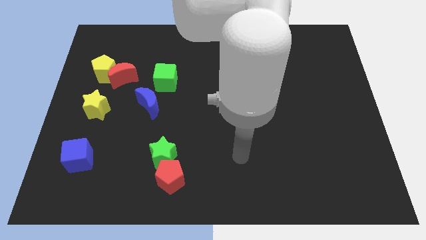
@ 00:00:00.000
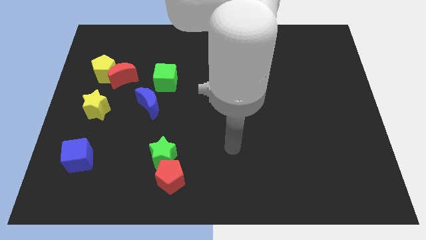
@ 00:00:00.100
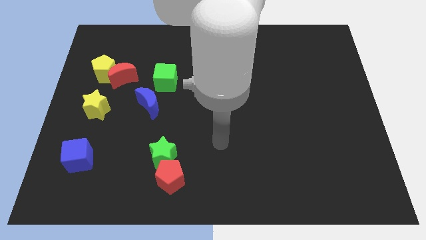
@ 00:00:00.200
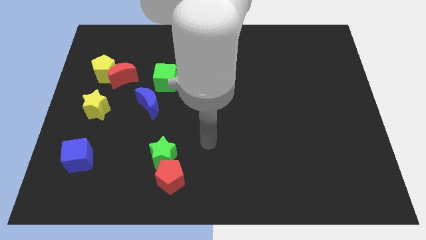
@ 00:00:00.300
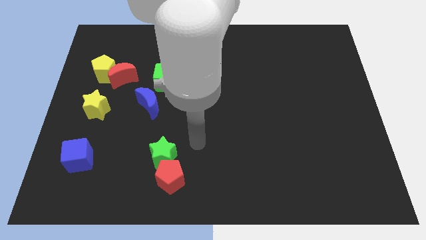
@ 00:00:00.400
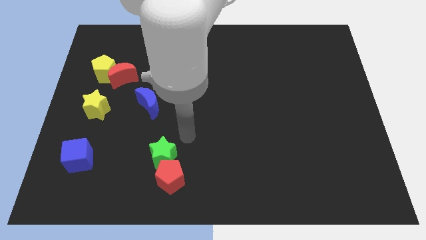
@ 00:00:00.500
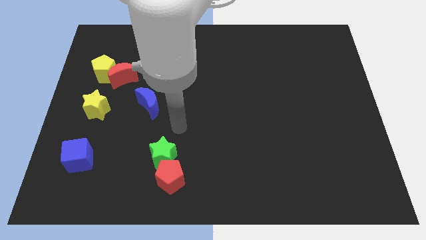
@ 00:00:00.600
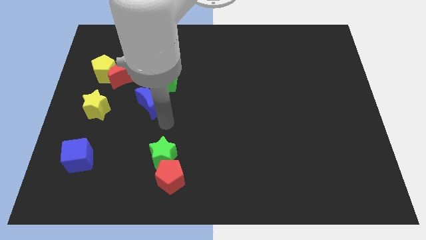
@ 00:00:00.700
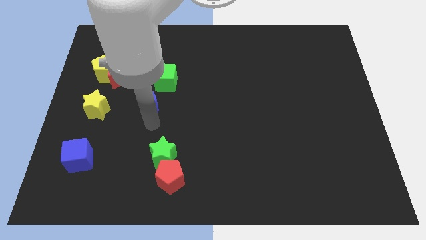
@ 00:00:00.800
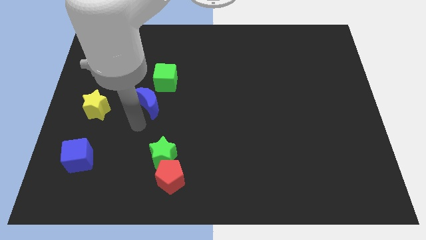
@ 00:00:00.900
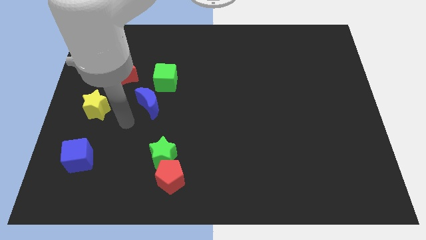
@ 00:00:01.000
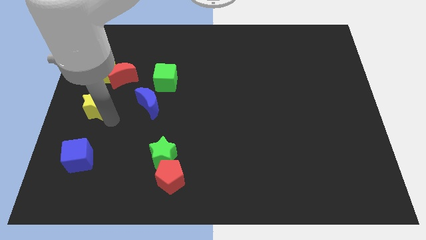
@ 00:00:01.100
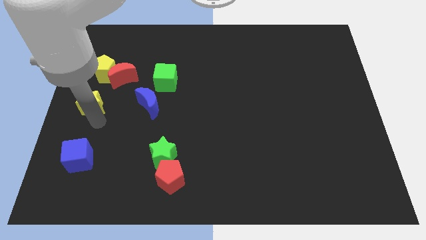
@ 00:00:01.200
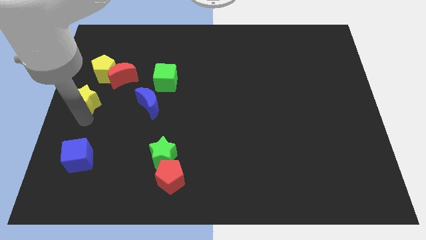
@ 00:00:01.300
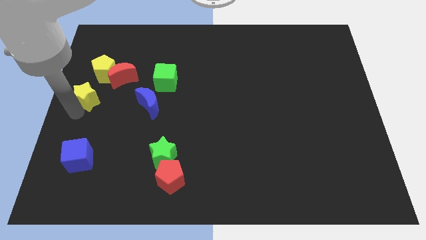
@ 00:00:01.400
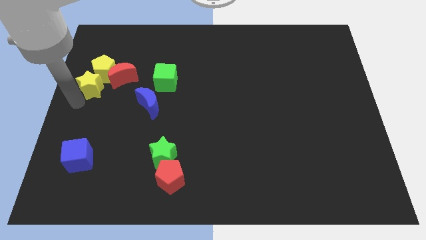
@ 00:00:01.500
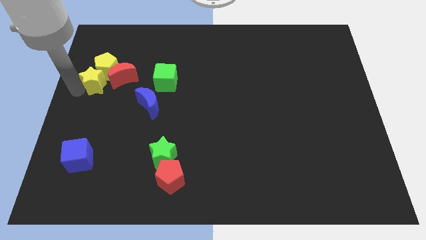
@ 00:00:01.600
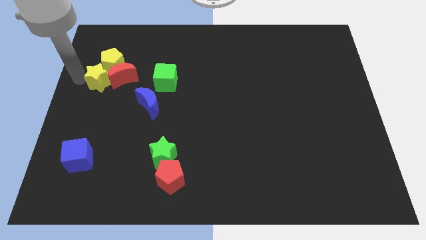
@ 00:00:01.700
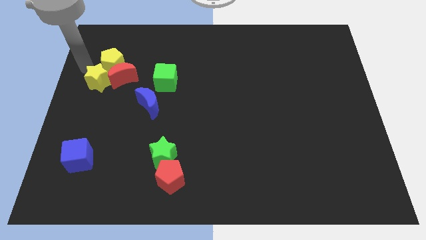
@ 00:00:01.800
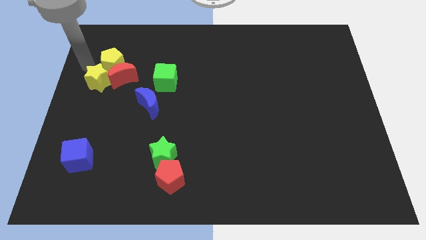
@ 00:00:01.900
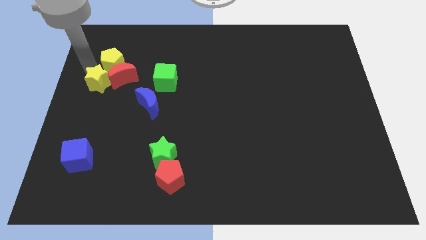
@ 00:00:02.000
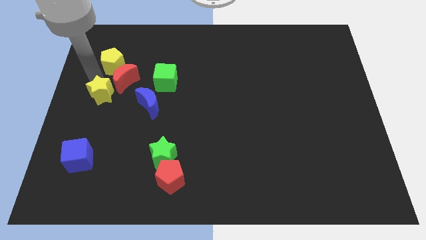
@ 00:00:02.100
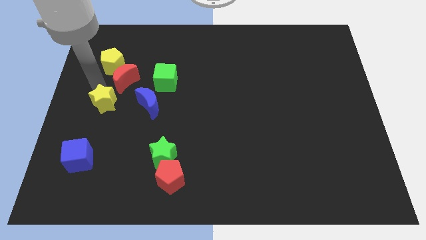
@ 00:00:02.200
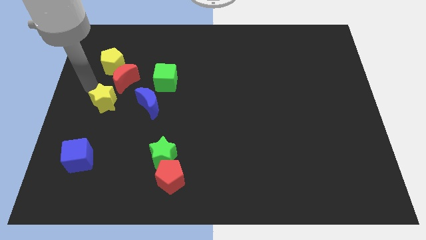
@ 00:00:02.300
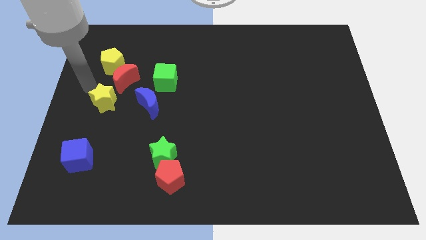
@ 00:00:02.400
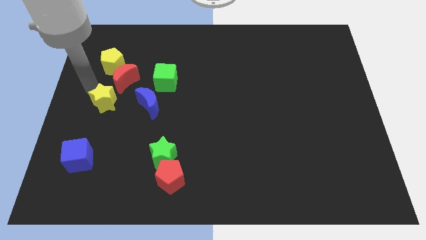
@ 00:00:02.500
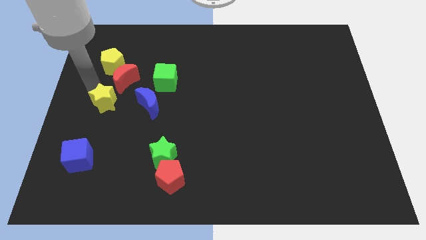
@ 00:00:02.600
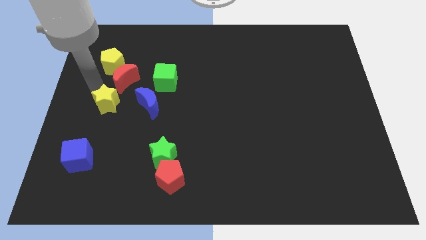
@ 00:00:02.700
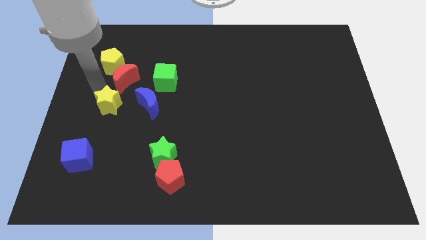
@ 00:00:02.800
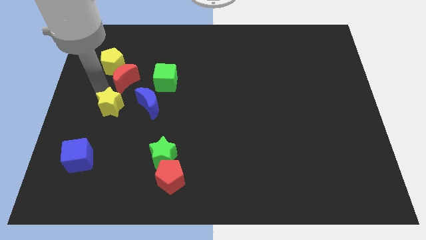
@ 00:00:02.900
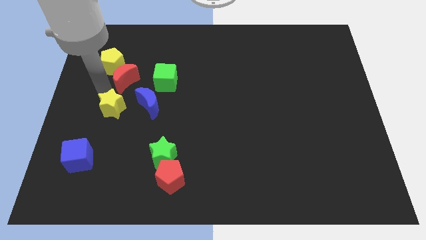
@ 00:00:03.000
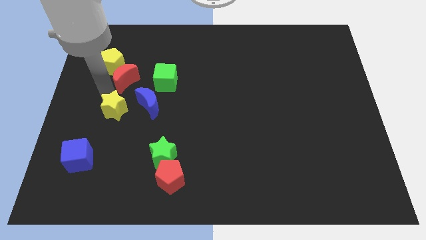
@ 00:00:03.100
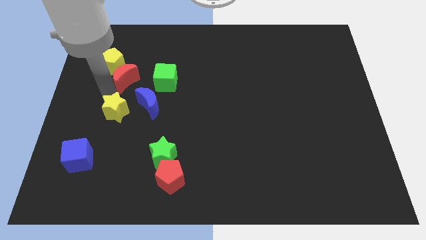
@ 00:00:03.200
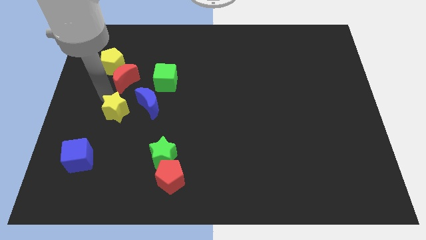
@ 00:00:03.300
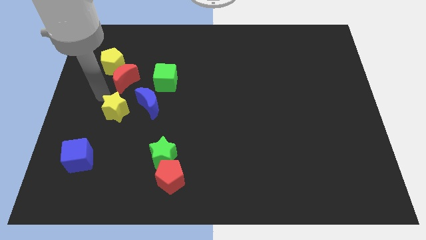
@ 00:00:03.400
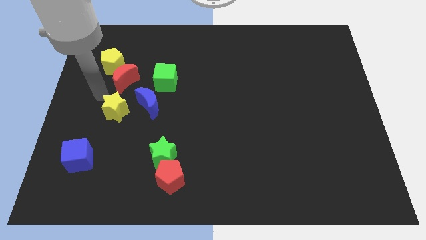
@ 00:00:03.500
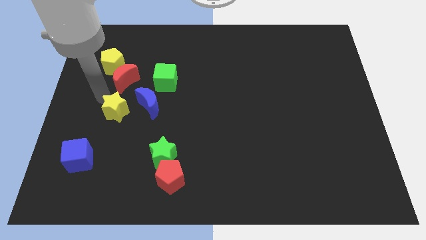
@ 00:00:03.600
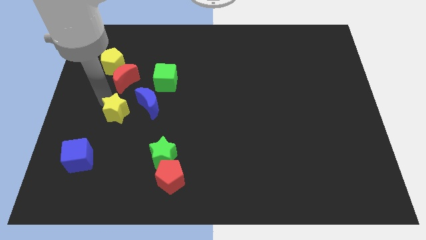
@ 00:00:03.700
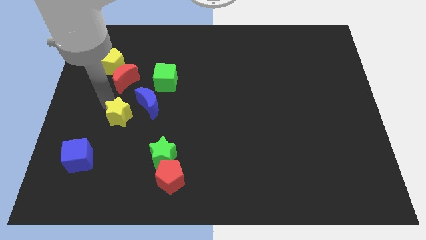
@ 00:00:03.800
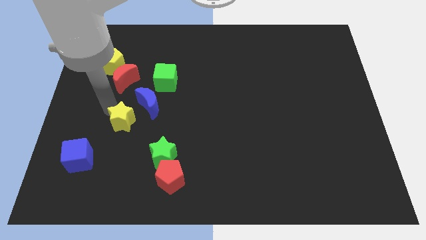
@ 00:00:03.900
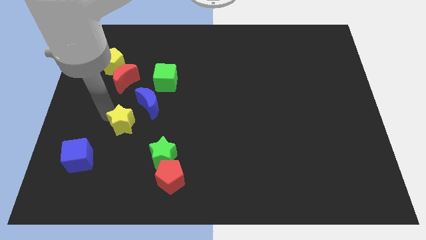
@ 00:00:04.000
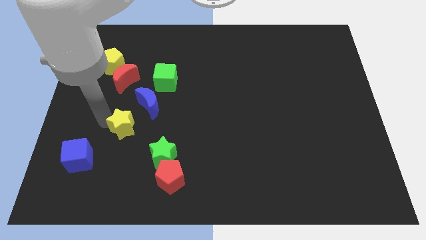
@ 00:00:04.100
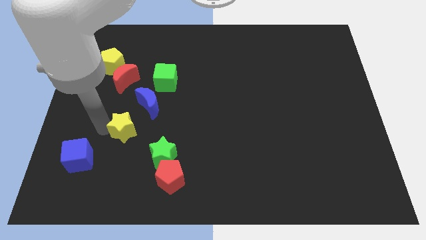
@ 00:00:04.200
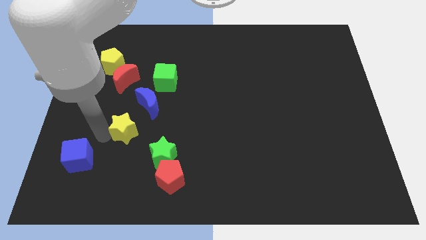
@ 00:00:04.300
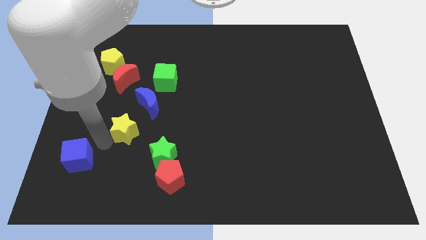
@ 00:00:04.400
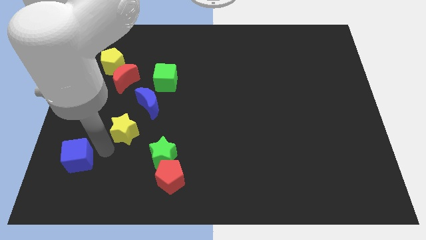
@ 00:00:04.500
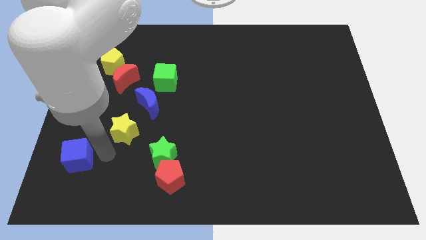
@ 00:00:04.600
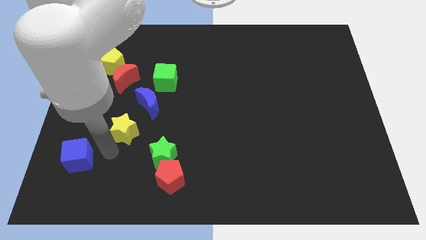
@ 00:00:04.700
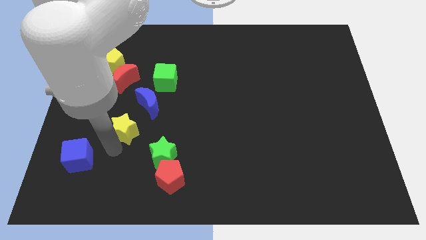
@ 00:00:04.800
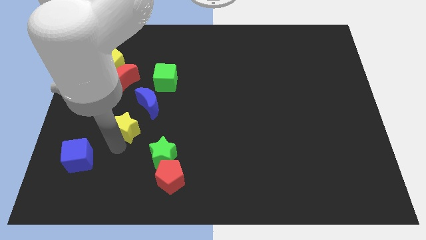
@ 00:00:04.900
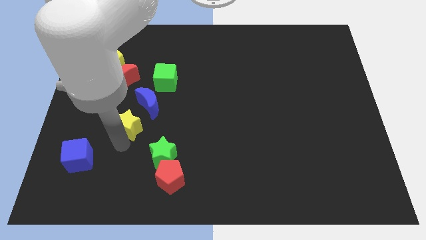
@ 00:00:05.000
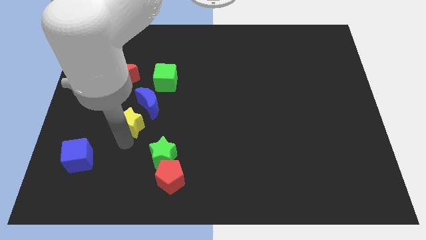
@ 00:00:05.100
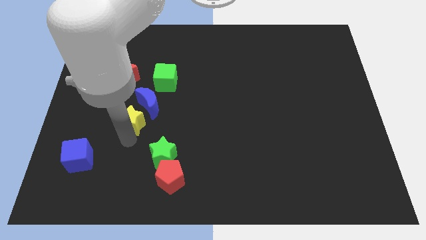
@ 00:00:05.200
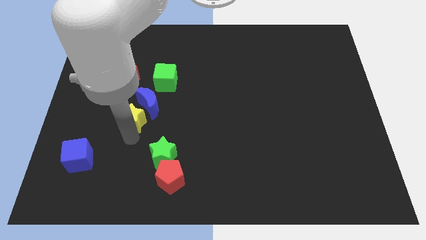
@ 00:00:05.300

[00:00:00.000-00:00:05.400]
push the yellow star to the blue moon

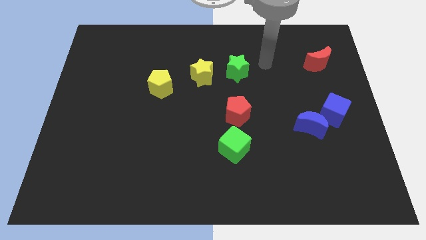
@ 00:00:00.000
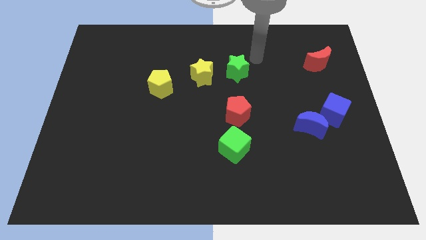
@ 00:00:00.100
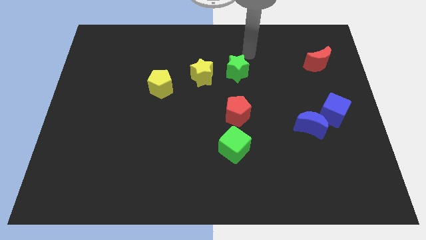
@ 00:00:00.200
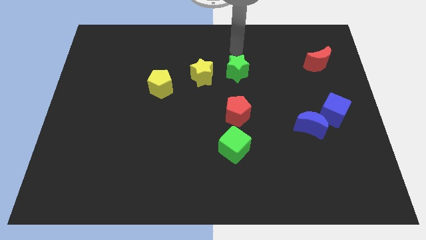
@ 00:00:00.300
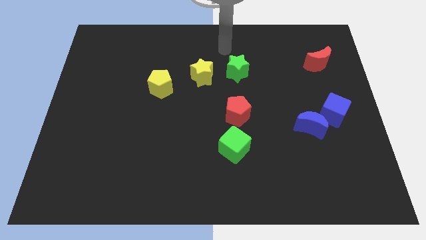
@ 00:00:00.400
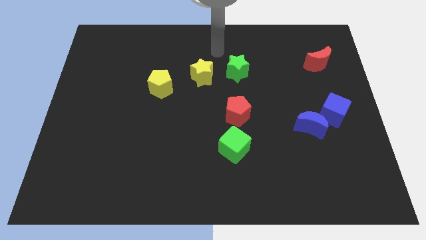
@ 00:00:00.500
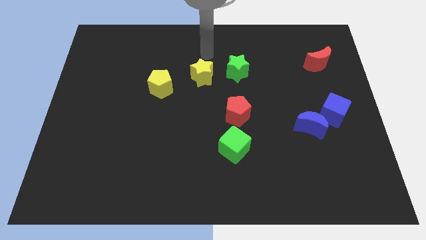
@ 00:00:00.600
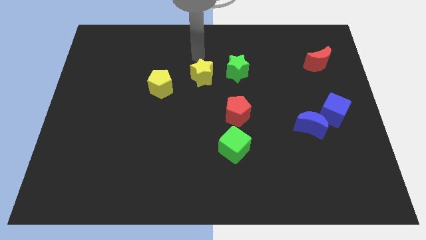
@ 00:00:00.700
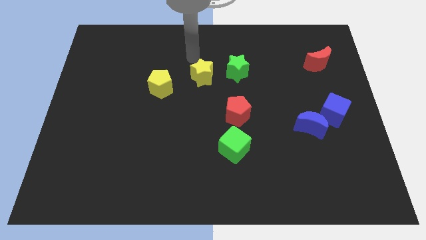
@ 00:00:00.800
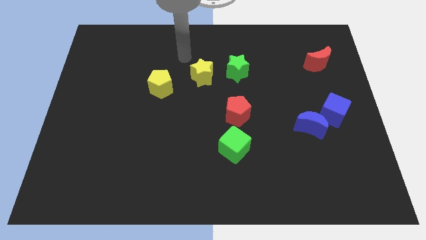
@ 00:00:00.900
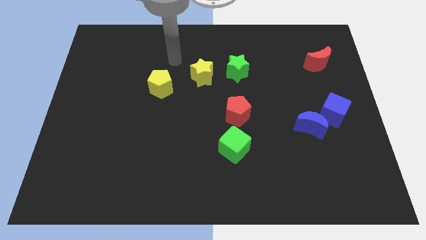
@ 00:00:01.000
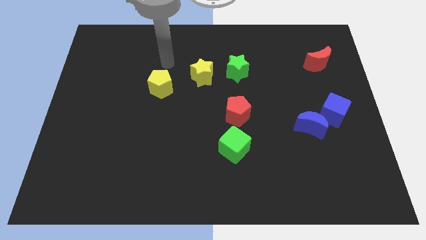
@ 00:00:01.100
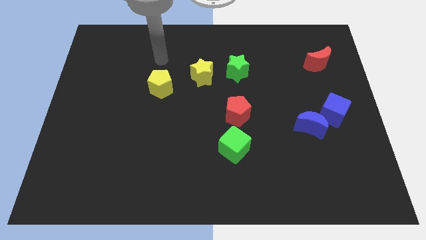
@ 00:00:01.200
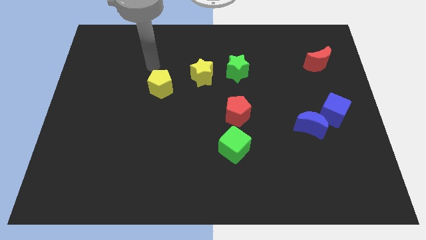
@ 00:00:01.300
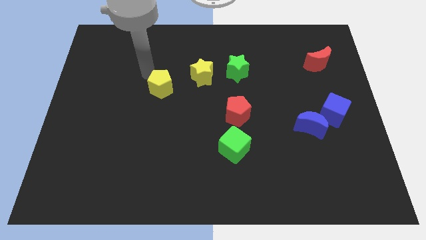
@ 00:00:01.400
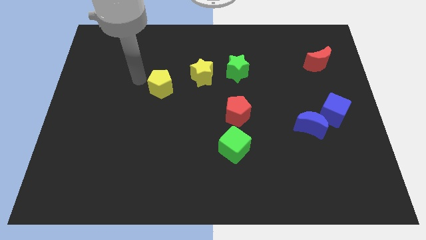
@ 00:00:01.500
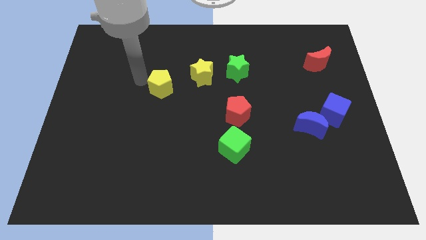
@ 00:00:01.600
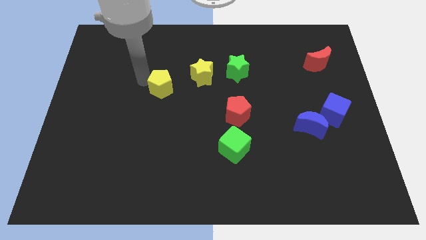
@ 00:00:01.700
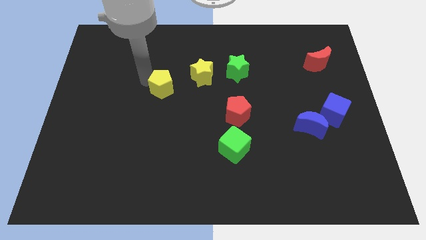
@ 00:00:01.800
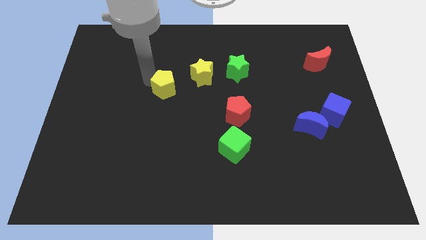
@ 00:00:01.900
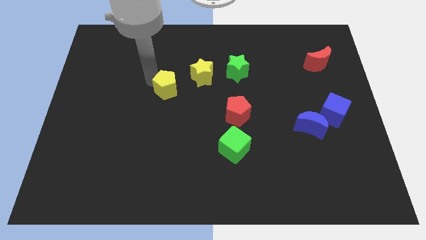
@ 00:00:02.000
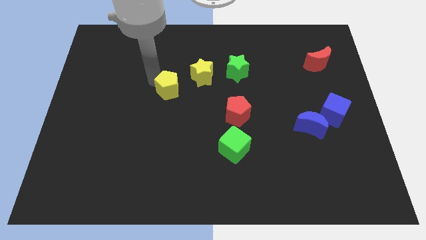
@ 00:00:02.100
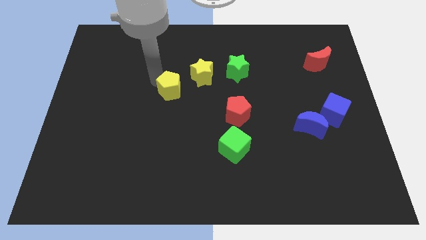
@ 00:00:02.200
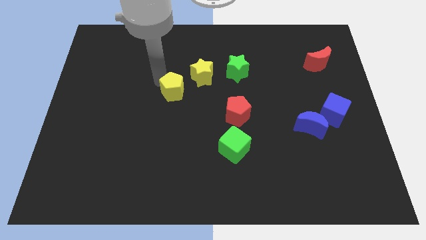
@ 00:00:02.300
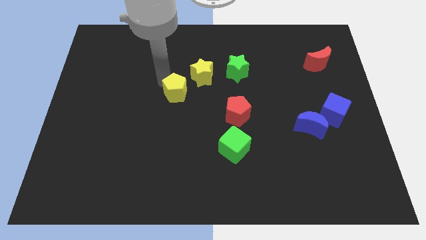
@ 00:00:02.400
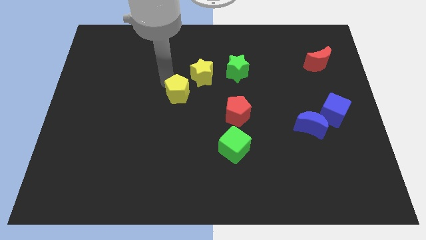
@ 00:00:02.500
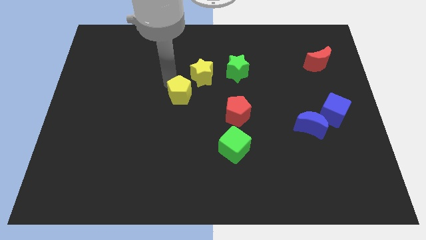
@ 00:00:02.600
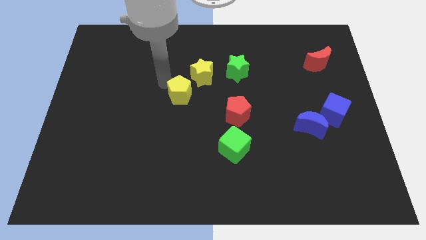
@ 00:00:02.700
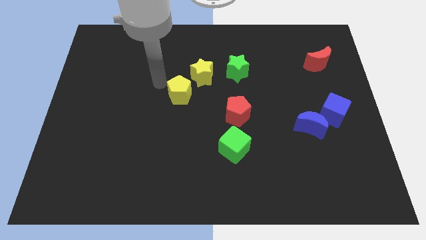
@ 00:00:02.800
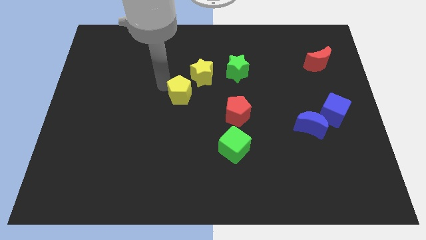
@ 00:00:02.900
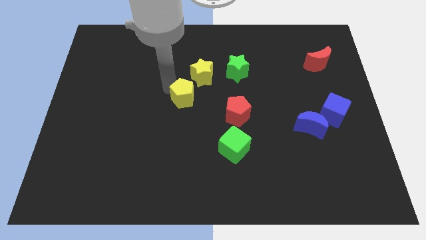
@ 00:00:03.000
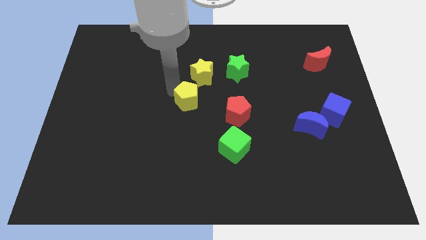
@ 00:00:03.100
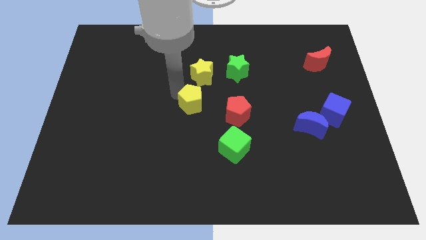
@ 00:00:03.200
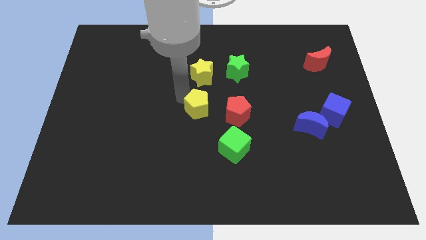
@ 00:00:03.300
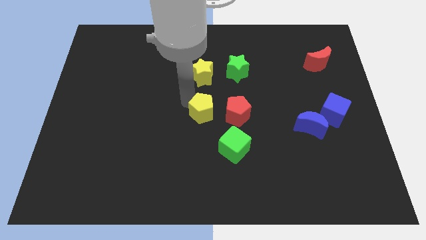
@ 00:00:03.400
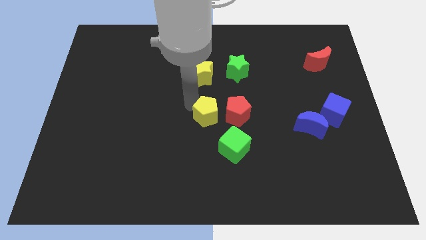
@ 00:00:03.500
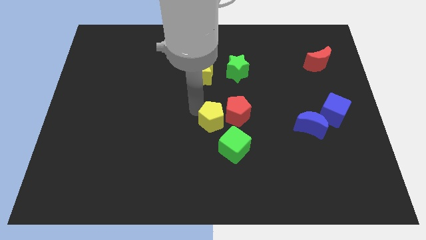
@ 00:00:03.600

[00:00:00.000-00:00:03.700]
slide the yellow pentagon close to the red pentagon
